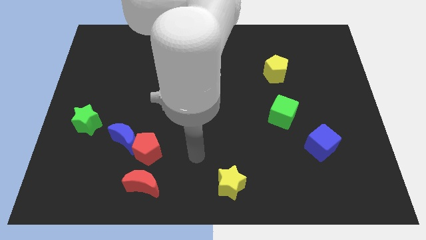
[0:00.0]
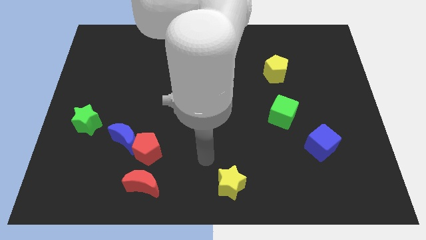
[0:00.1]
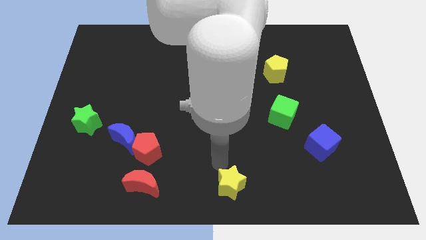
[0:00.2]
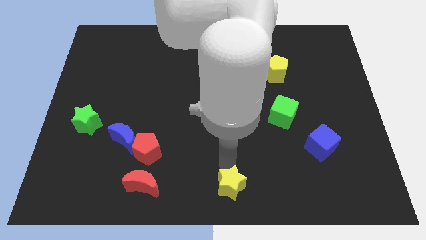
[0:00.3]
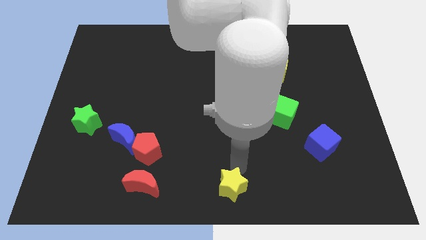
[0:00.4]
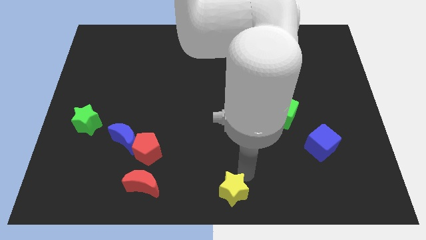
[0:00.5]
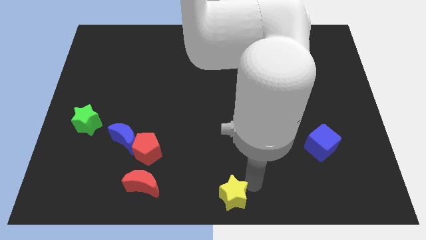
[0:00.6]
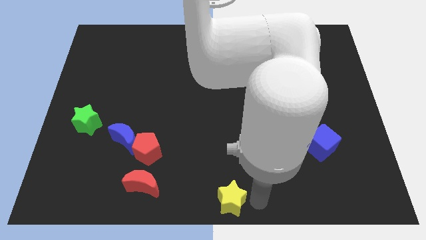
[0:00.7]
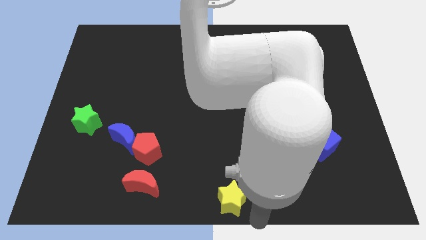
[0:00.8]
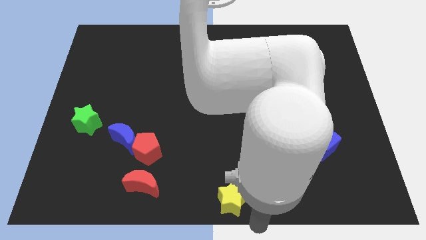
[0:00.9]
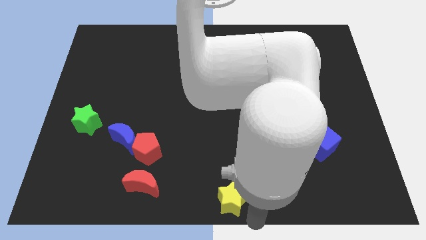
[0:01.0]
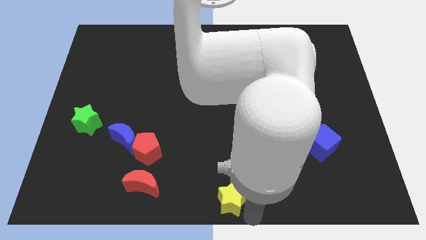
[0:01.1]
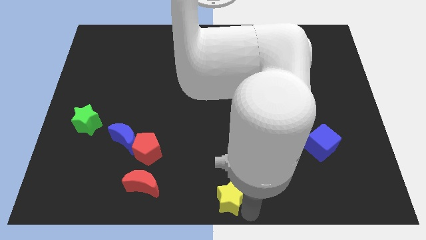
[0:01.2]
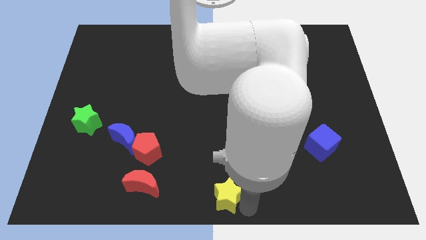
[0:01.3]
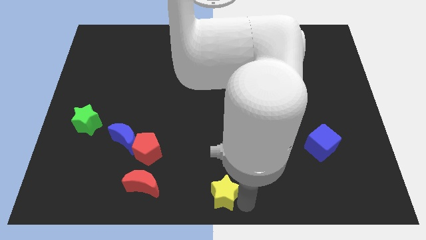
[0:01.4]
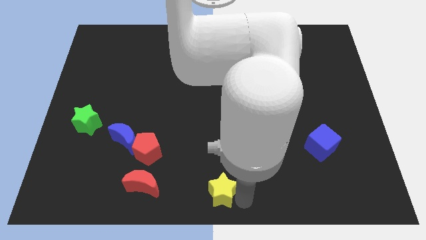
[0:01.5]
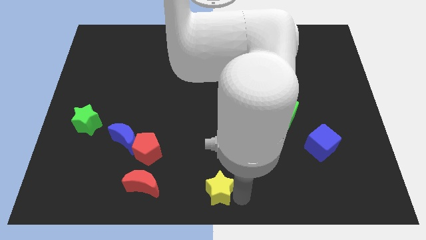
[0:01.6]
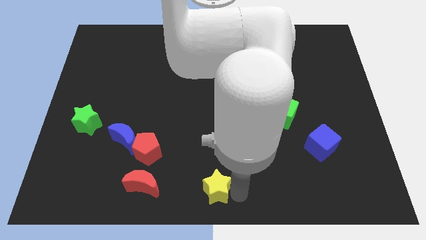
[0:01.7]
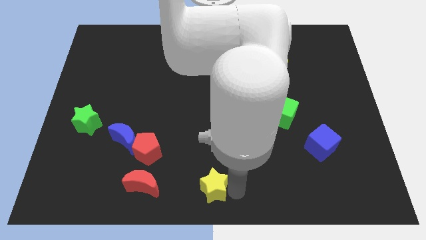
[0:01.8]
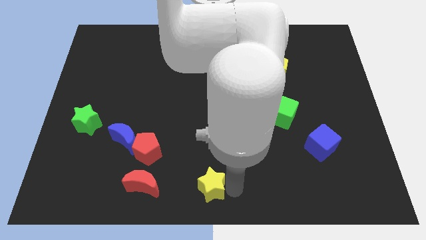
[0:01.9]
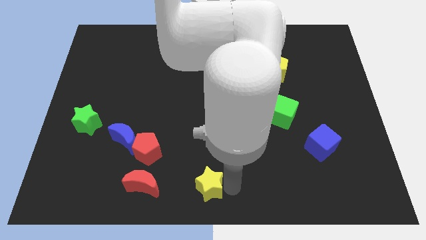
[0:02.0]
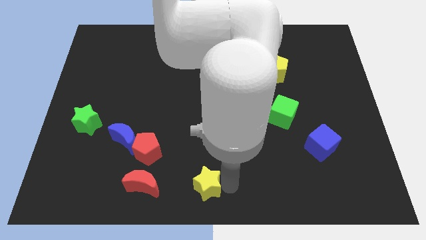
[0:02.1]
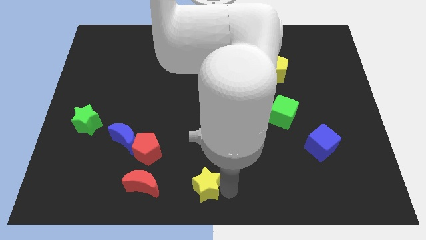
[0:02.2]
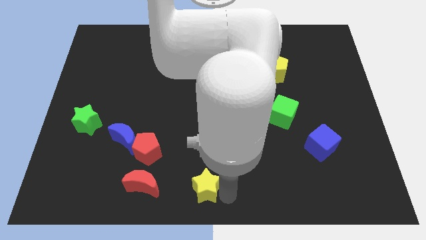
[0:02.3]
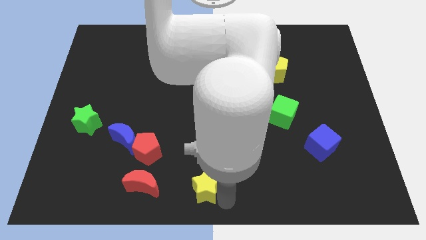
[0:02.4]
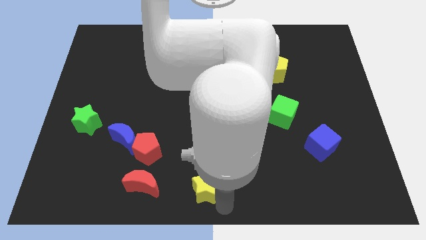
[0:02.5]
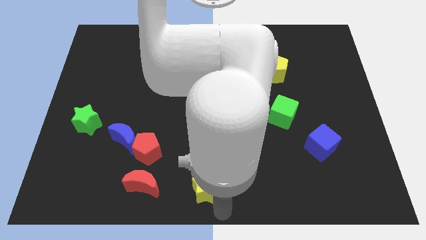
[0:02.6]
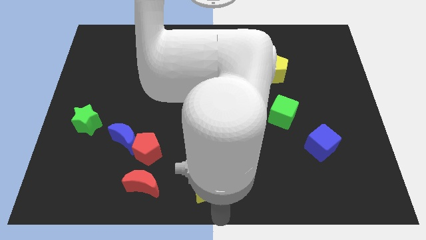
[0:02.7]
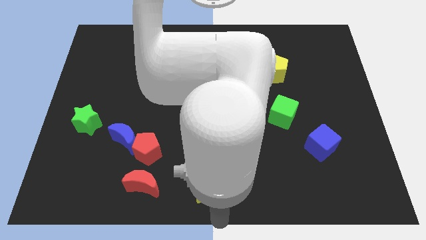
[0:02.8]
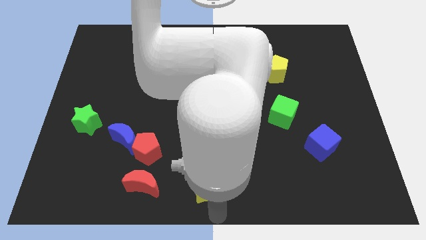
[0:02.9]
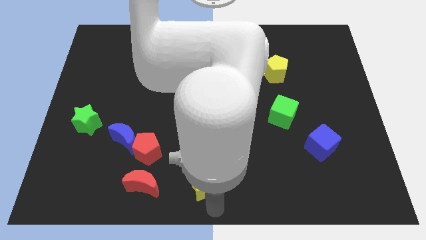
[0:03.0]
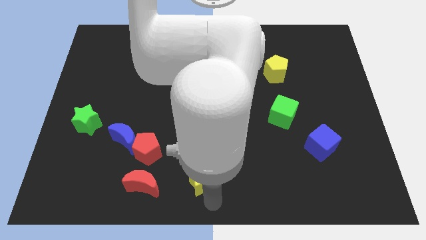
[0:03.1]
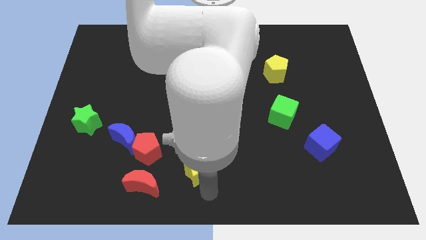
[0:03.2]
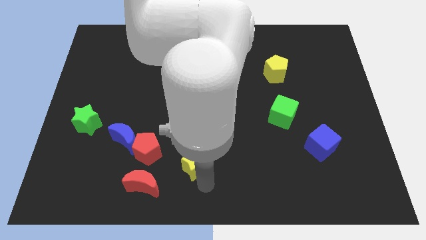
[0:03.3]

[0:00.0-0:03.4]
slide the yellow star slightly diagonally up and to the left

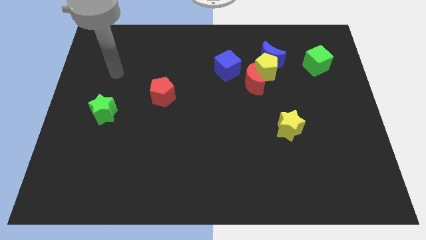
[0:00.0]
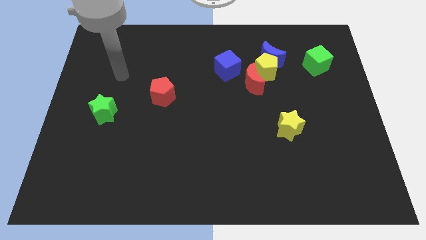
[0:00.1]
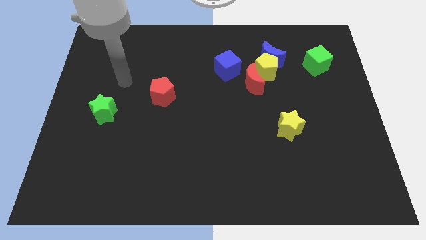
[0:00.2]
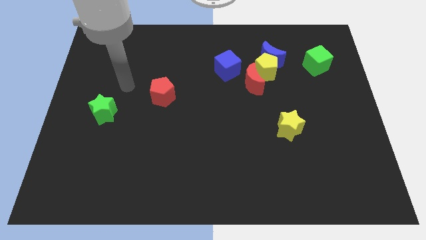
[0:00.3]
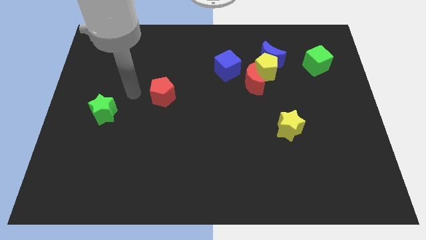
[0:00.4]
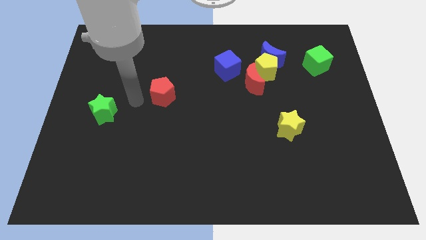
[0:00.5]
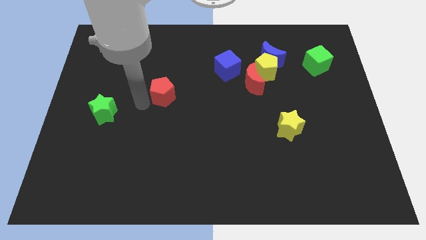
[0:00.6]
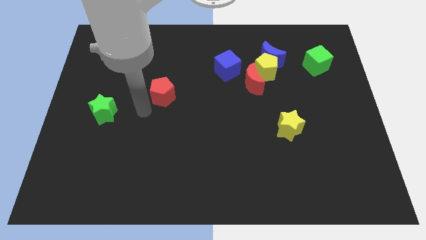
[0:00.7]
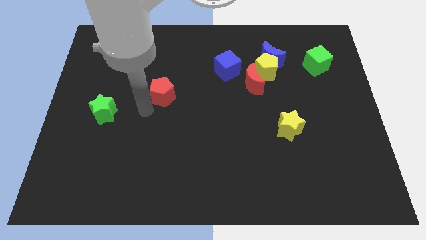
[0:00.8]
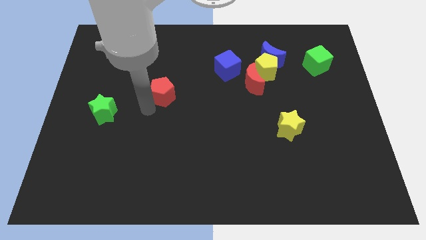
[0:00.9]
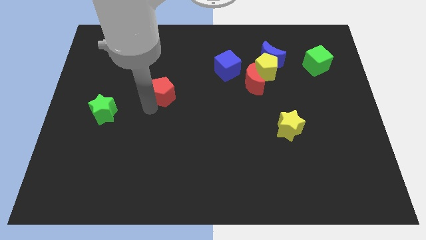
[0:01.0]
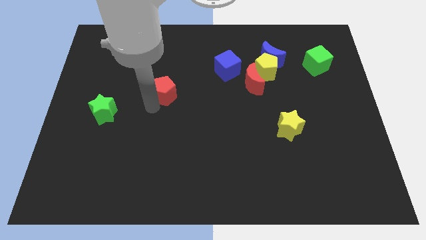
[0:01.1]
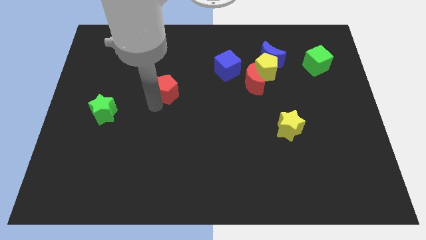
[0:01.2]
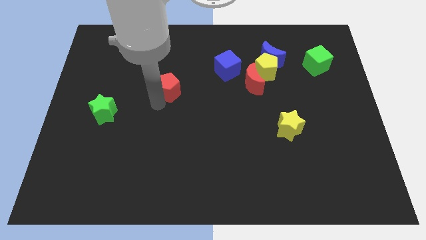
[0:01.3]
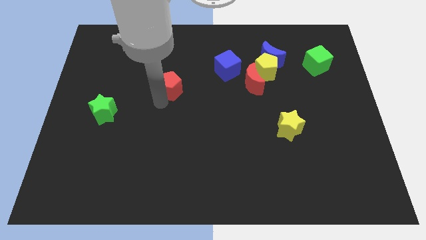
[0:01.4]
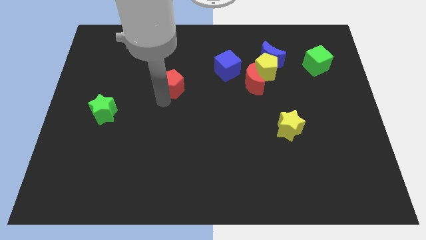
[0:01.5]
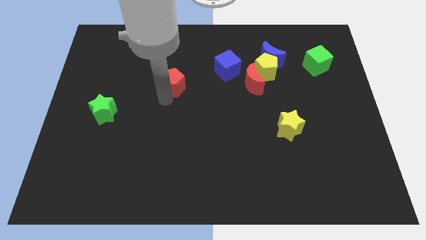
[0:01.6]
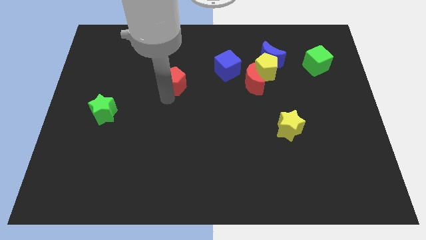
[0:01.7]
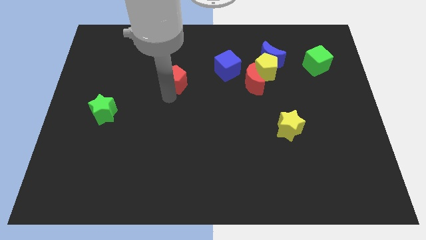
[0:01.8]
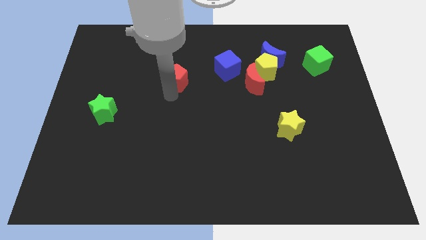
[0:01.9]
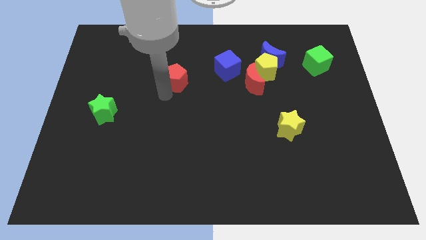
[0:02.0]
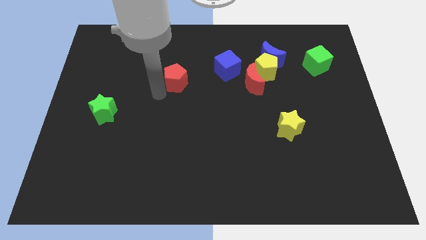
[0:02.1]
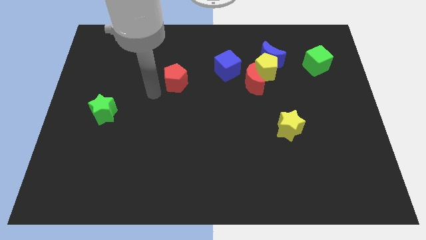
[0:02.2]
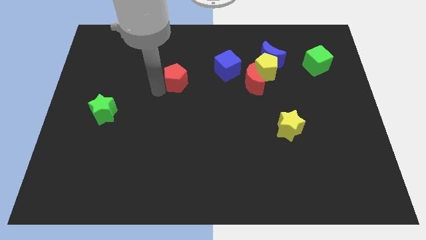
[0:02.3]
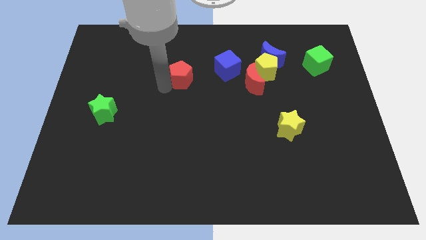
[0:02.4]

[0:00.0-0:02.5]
slide the red pentagon a little upwards and to the right

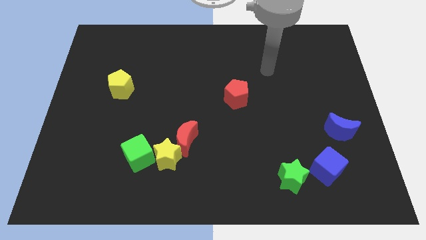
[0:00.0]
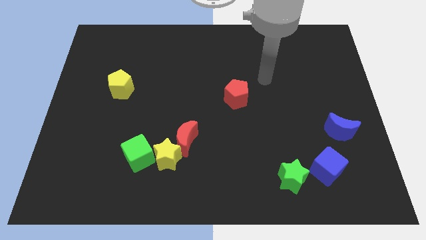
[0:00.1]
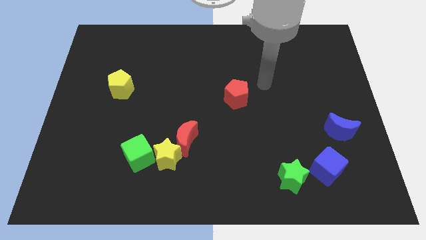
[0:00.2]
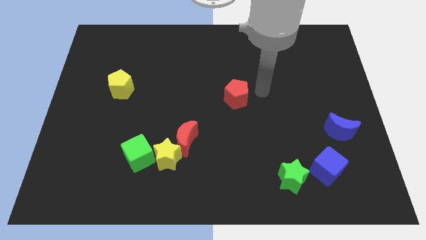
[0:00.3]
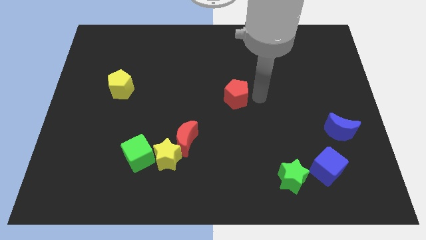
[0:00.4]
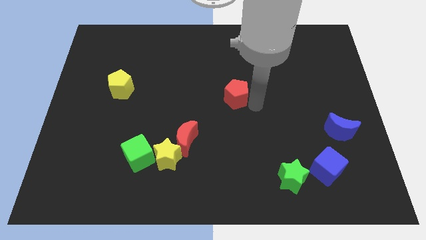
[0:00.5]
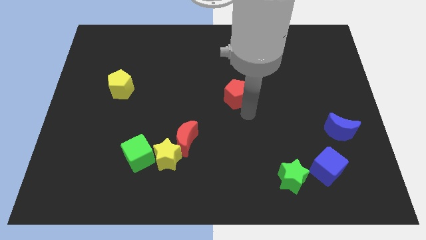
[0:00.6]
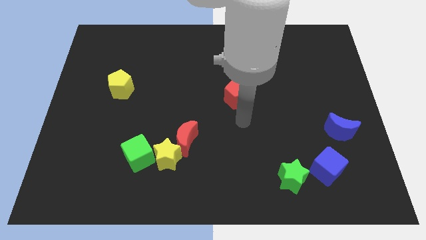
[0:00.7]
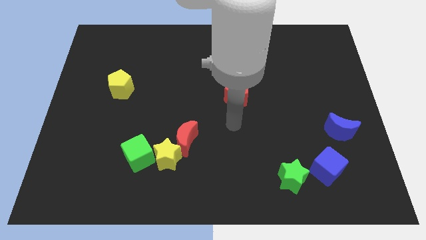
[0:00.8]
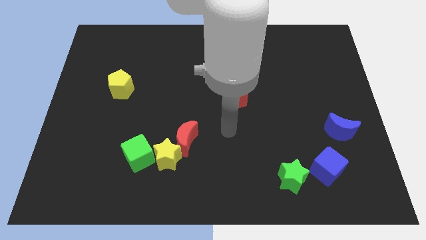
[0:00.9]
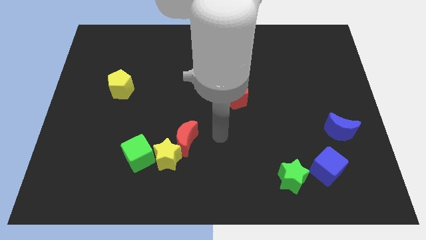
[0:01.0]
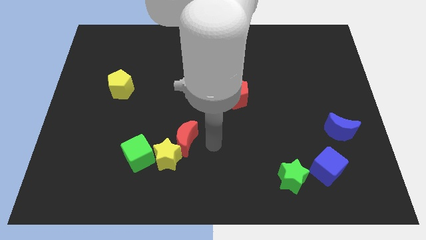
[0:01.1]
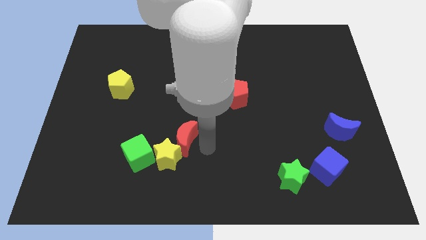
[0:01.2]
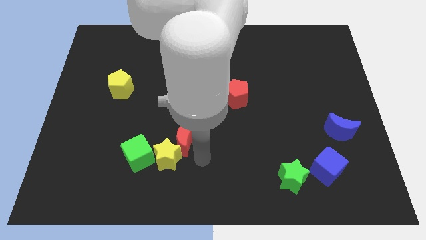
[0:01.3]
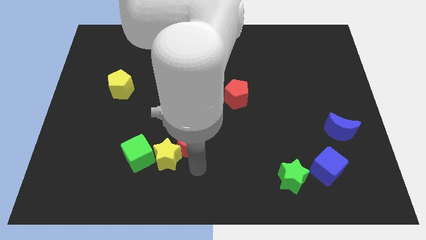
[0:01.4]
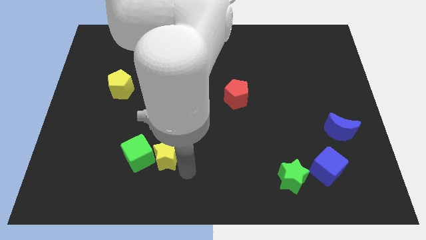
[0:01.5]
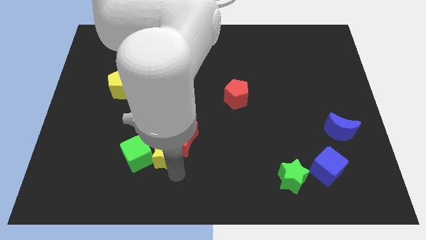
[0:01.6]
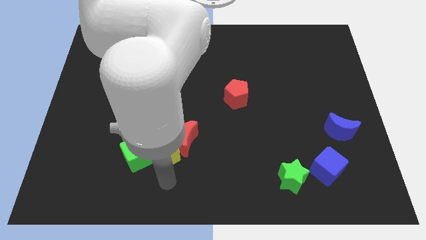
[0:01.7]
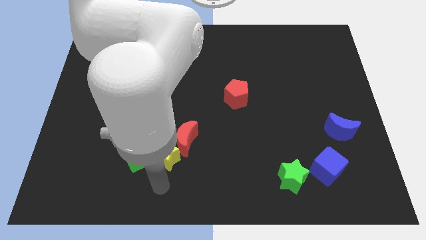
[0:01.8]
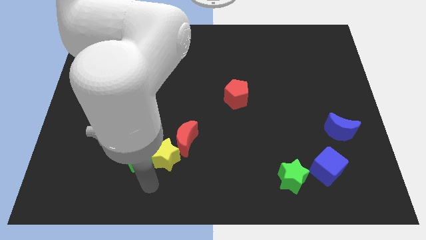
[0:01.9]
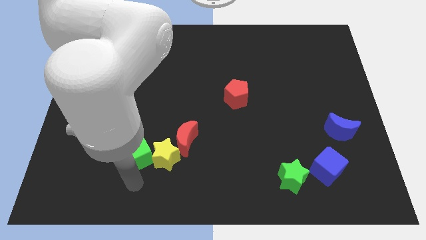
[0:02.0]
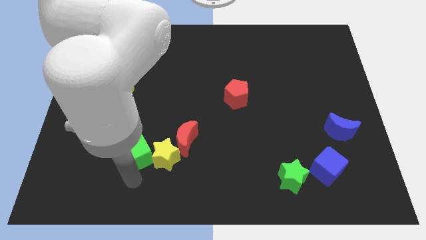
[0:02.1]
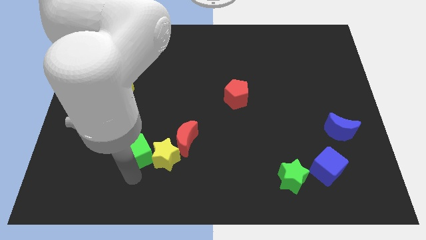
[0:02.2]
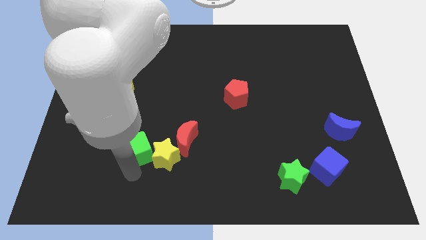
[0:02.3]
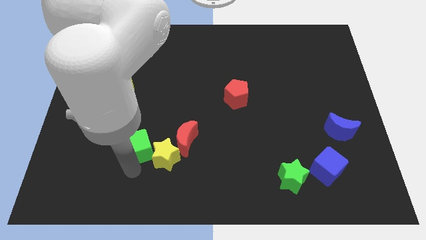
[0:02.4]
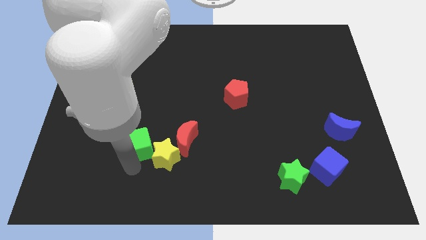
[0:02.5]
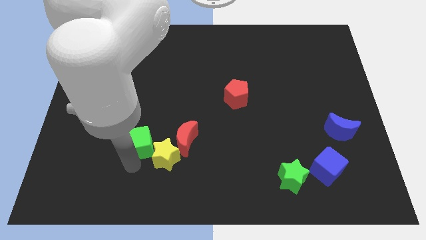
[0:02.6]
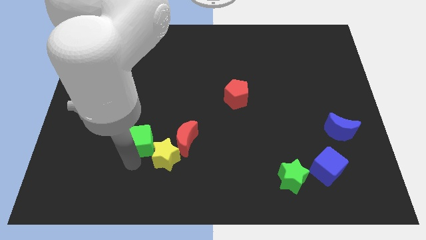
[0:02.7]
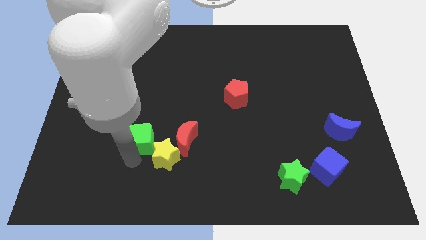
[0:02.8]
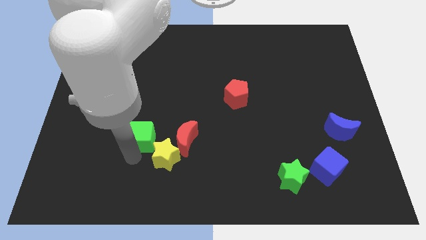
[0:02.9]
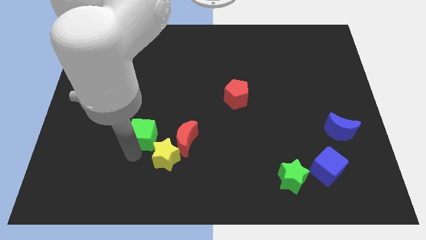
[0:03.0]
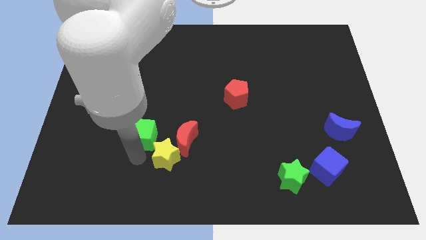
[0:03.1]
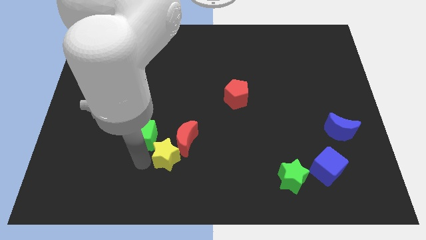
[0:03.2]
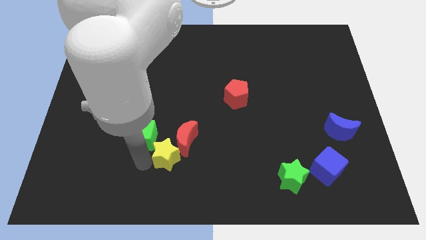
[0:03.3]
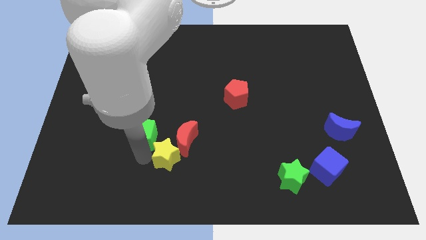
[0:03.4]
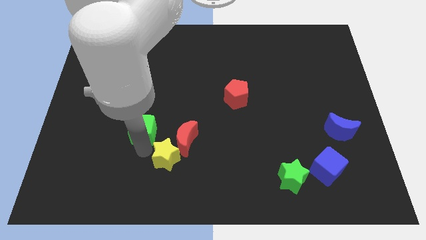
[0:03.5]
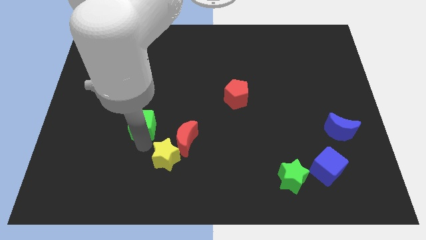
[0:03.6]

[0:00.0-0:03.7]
push the green cube up slightly
